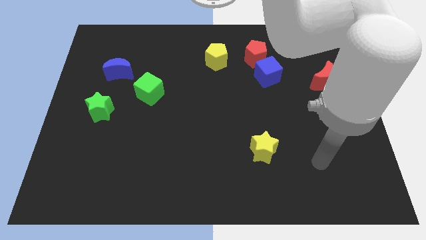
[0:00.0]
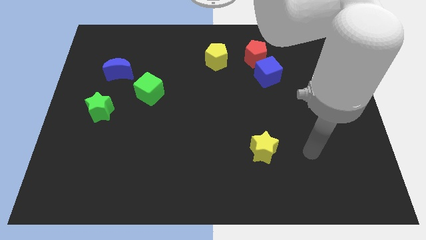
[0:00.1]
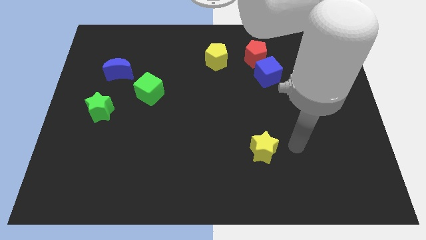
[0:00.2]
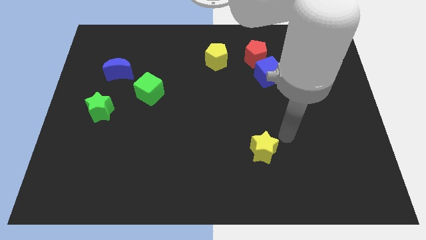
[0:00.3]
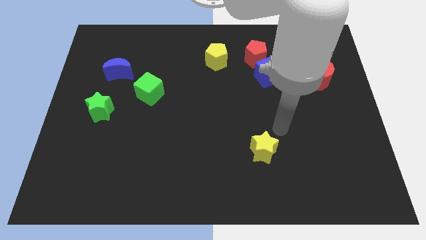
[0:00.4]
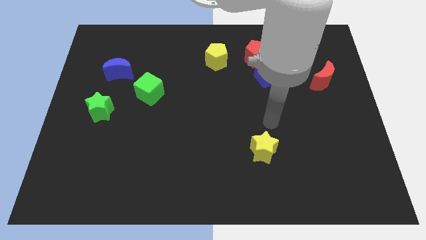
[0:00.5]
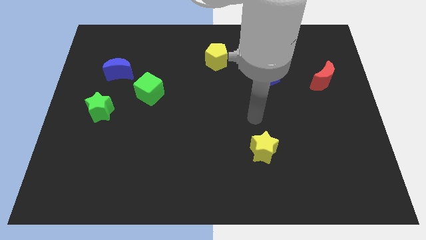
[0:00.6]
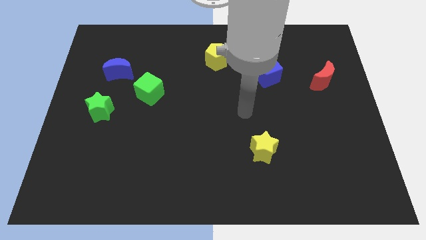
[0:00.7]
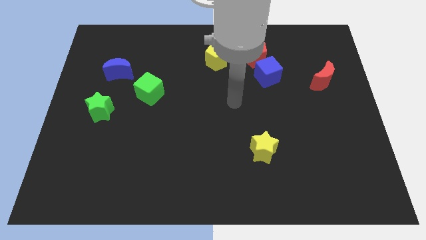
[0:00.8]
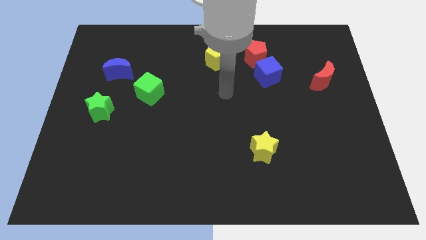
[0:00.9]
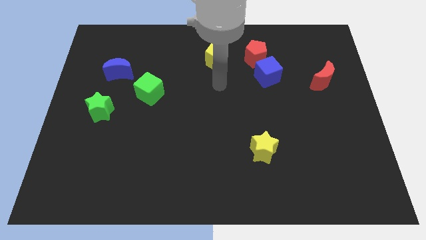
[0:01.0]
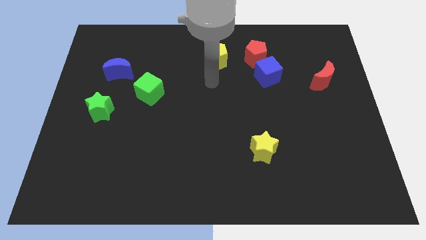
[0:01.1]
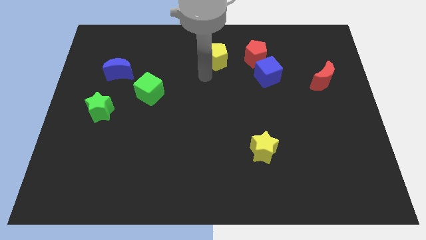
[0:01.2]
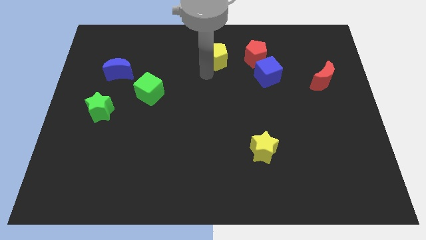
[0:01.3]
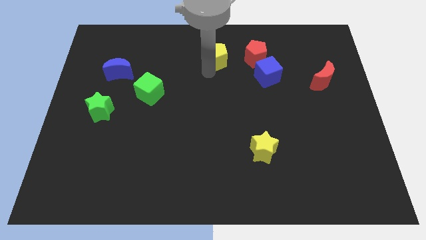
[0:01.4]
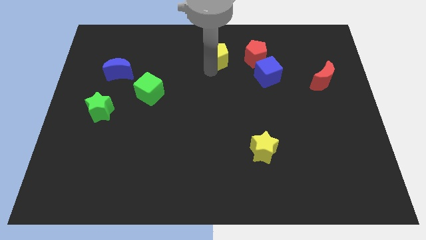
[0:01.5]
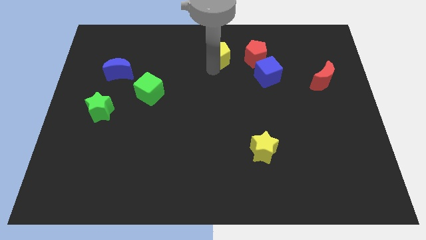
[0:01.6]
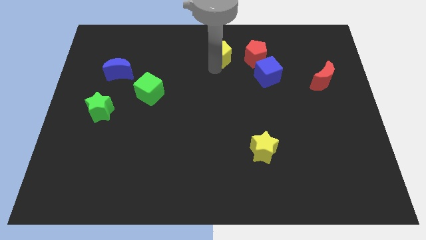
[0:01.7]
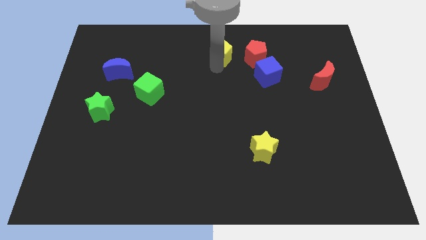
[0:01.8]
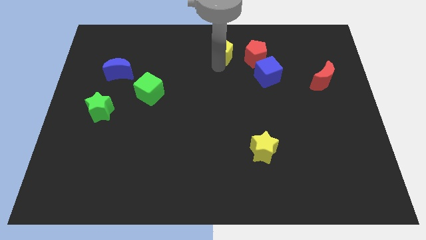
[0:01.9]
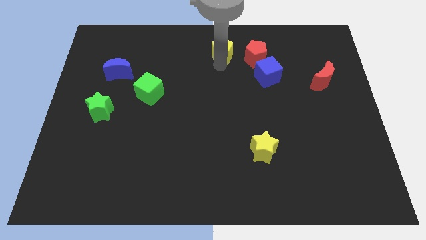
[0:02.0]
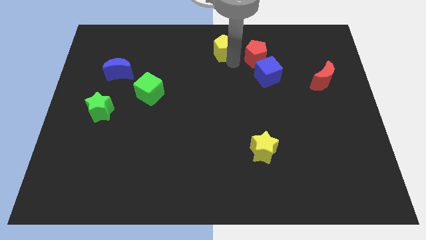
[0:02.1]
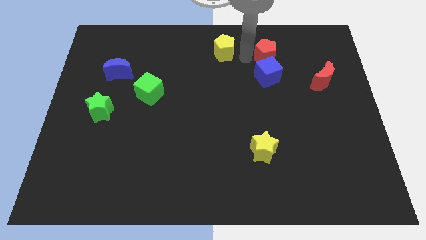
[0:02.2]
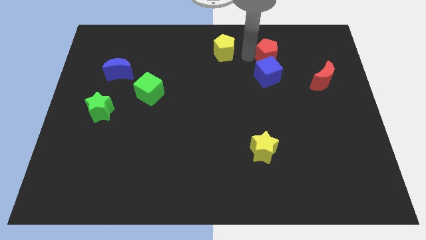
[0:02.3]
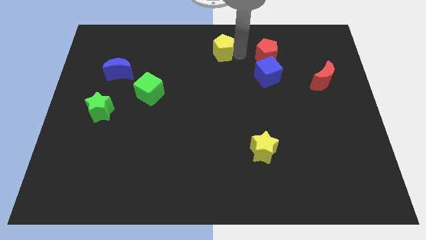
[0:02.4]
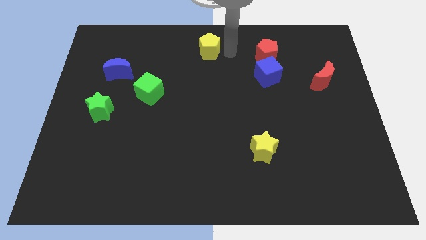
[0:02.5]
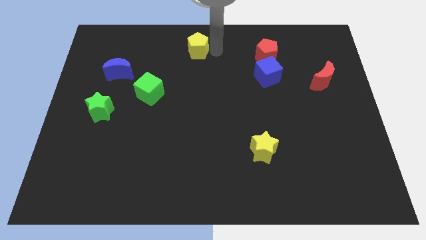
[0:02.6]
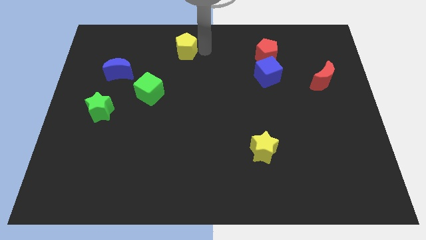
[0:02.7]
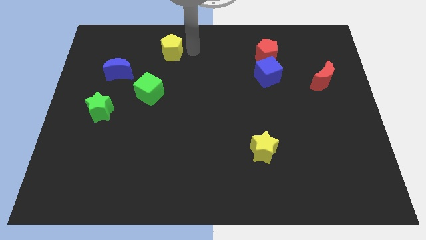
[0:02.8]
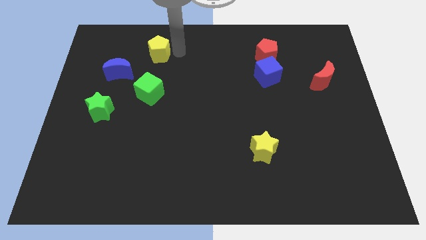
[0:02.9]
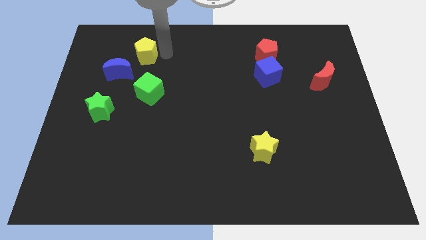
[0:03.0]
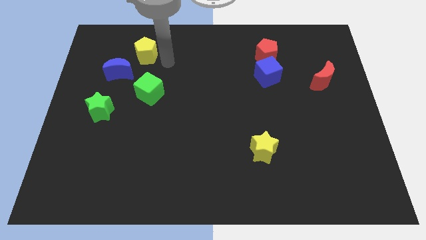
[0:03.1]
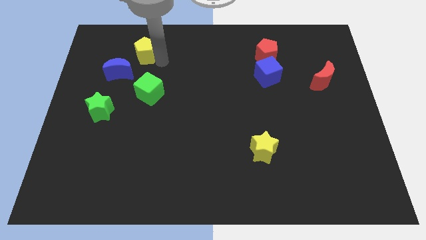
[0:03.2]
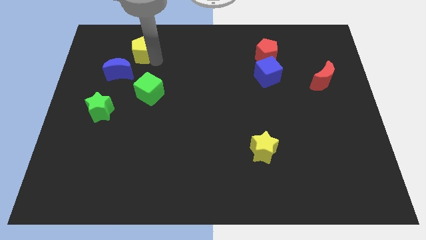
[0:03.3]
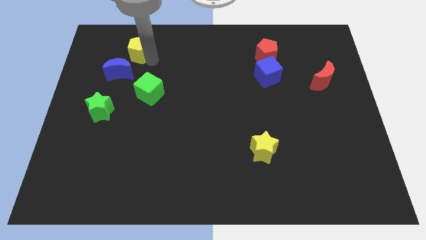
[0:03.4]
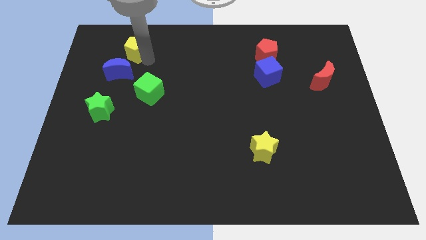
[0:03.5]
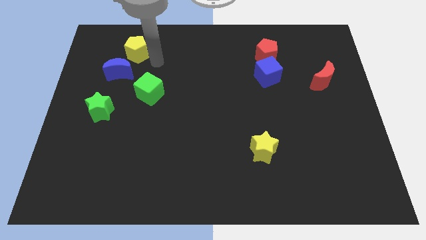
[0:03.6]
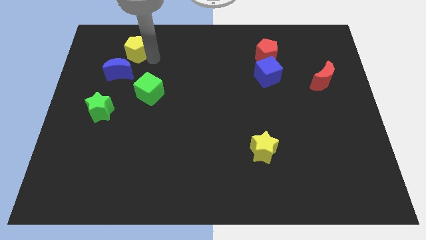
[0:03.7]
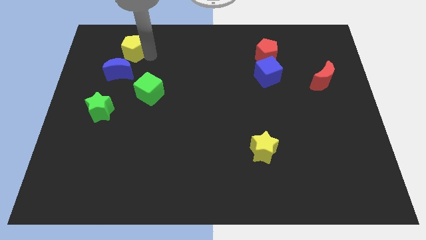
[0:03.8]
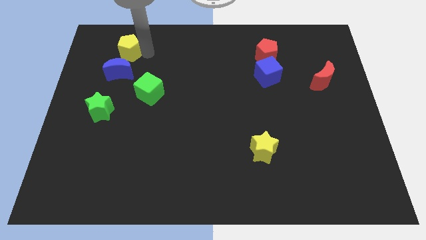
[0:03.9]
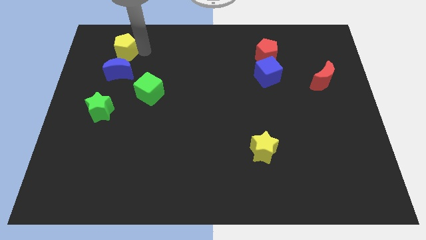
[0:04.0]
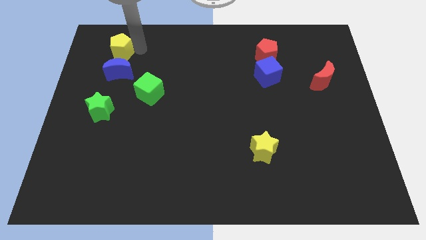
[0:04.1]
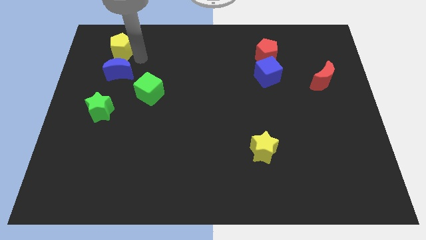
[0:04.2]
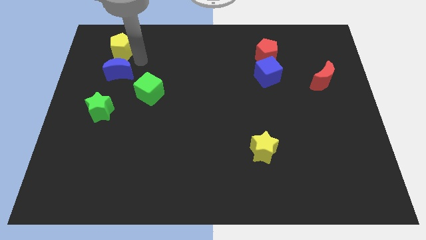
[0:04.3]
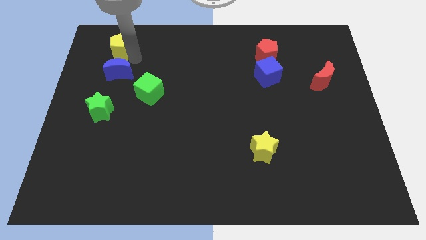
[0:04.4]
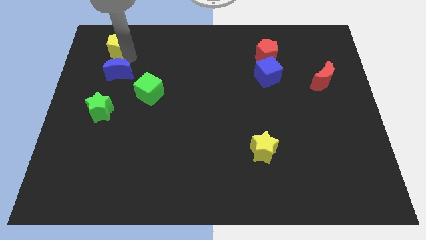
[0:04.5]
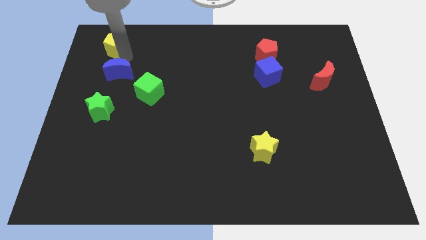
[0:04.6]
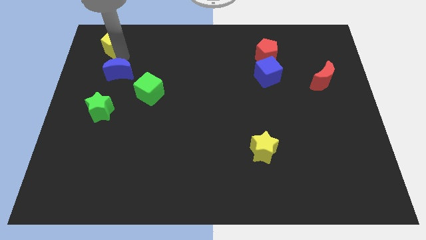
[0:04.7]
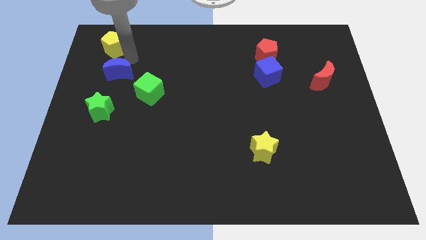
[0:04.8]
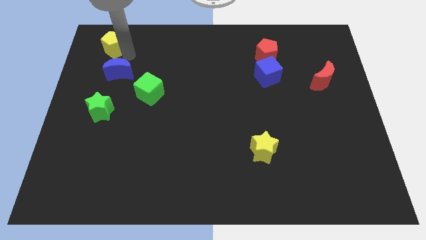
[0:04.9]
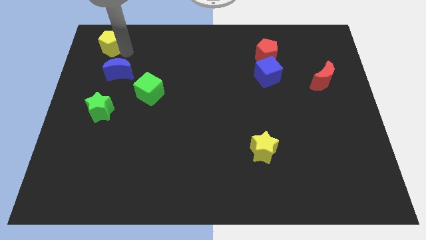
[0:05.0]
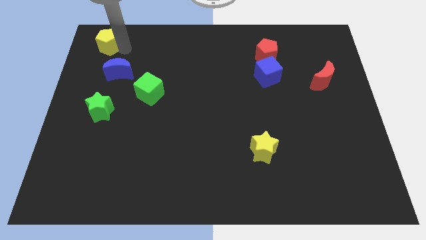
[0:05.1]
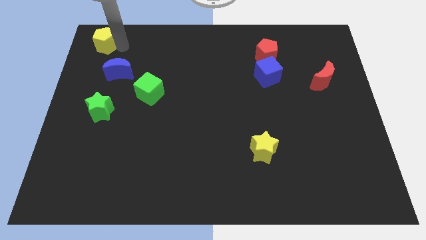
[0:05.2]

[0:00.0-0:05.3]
slide the yellow pentagon to the upper left corner

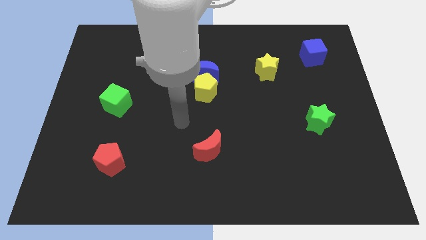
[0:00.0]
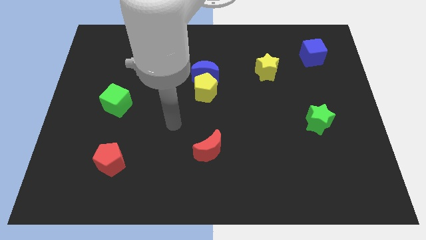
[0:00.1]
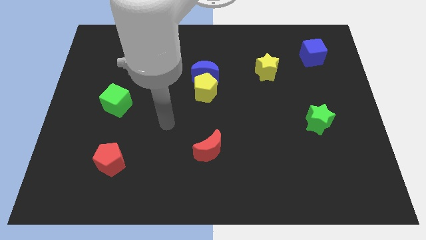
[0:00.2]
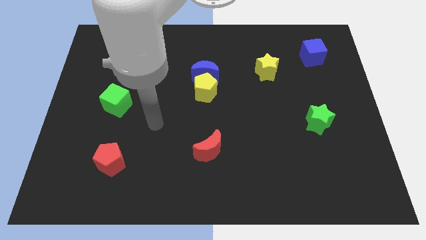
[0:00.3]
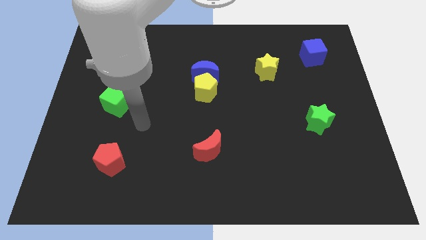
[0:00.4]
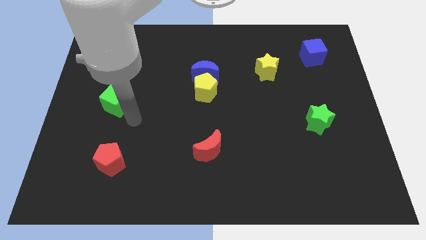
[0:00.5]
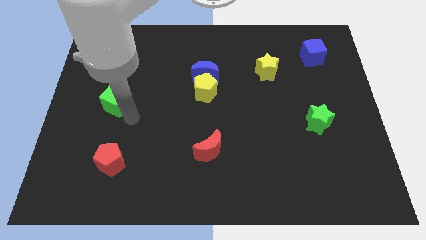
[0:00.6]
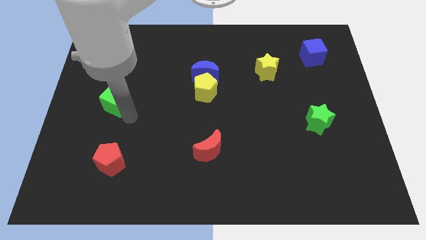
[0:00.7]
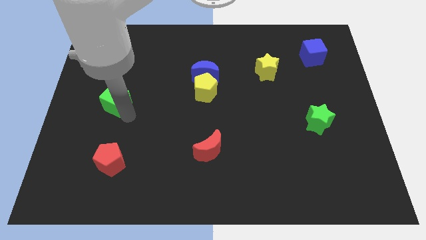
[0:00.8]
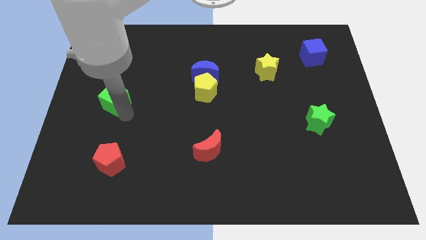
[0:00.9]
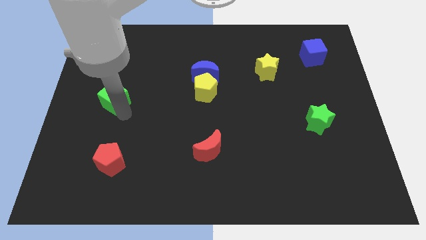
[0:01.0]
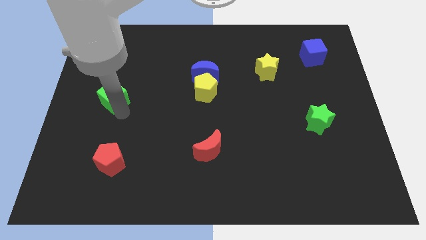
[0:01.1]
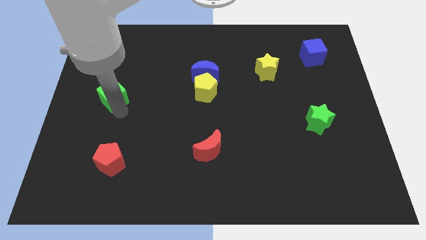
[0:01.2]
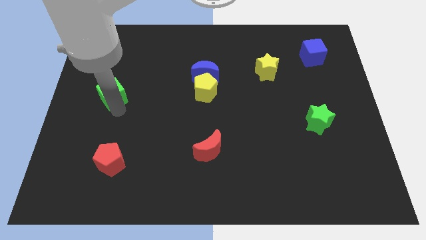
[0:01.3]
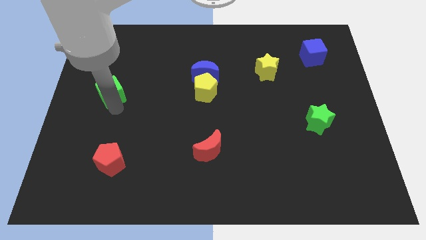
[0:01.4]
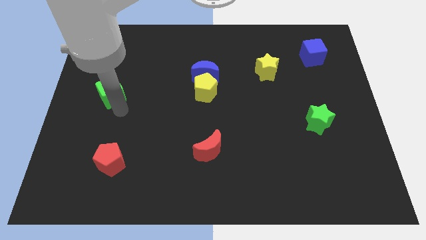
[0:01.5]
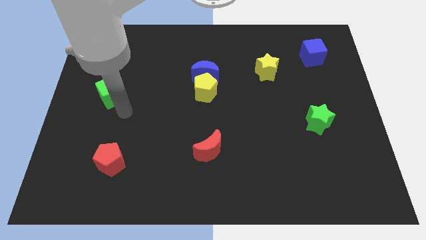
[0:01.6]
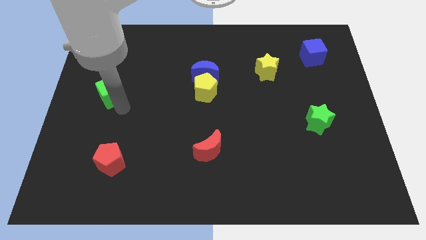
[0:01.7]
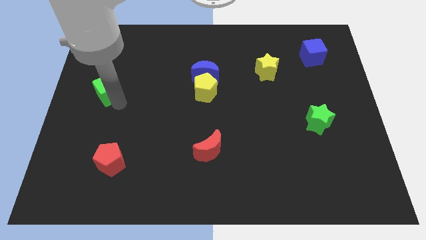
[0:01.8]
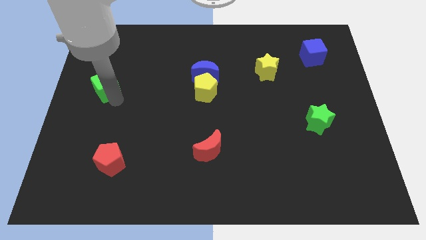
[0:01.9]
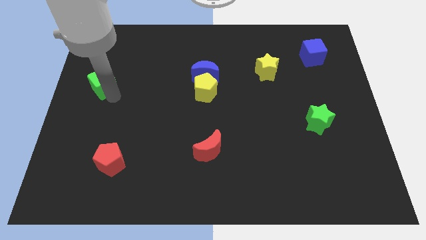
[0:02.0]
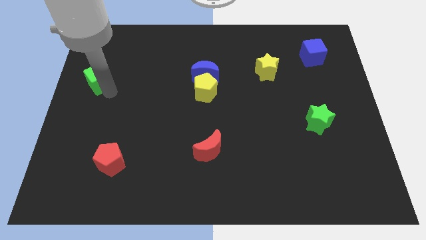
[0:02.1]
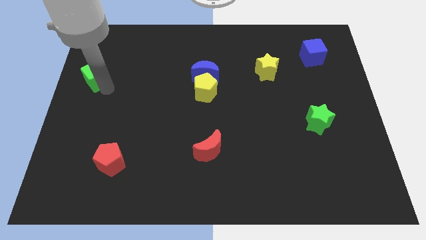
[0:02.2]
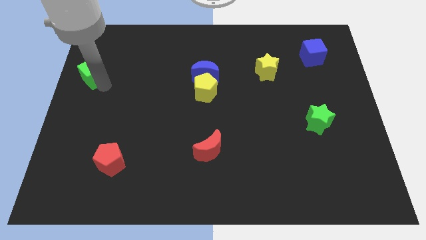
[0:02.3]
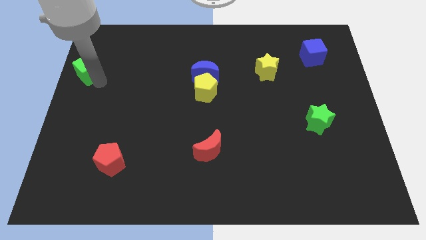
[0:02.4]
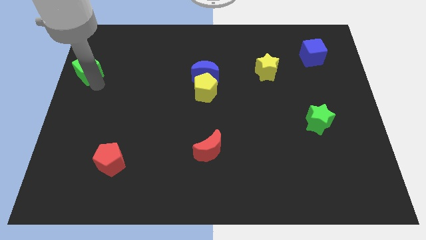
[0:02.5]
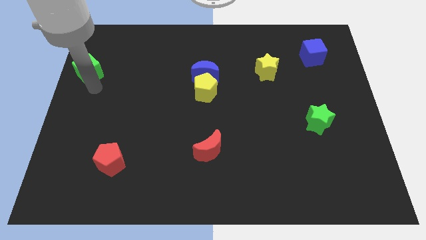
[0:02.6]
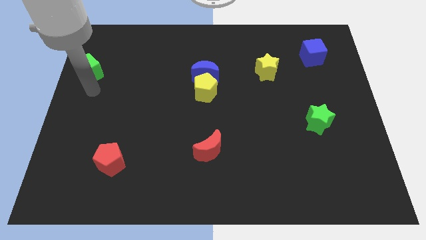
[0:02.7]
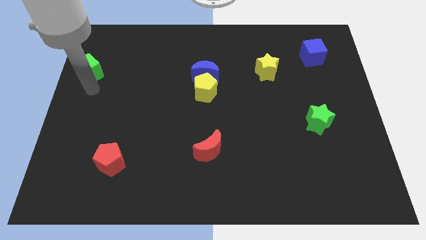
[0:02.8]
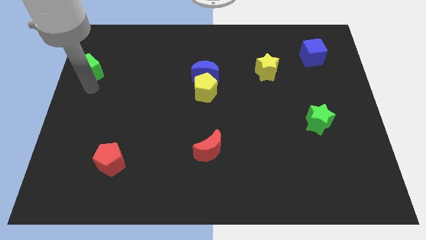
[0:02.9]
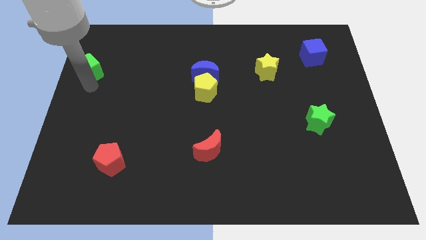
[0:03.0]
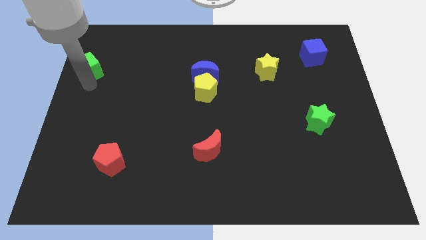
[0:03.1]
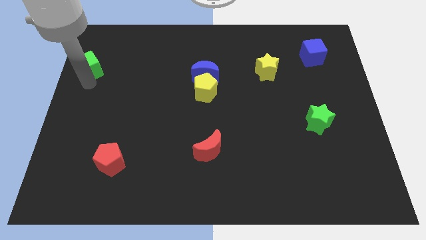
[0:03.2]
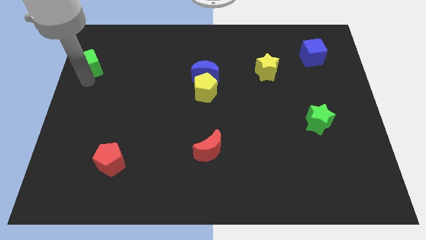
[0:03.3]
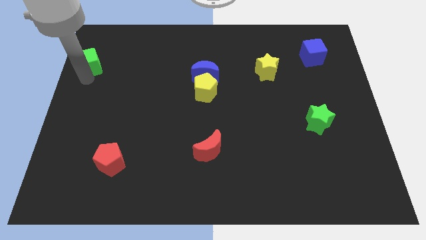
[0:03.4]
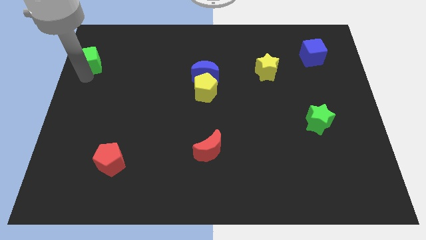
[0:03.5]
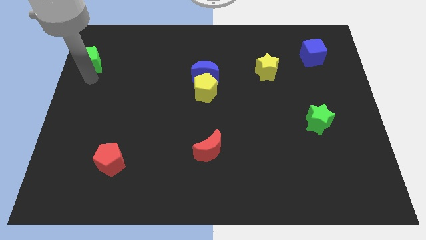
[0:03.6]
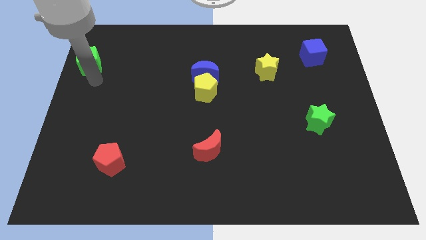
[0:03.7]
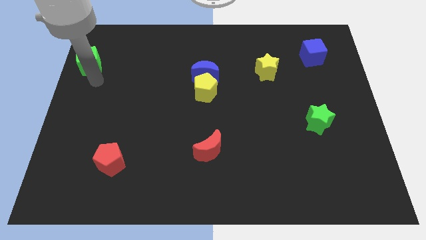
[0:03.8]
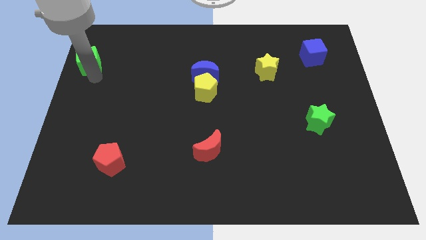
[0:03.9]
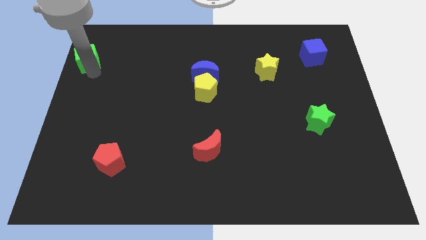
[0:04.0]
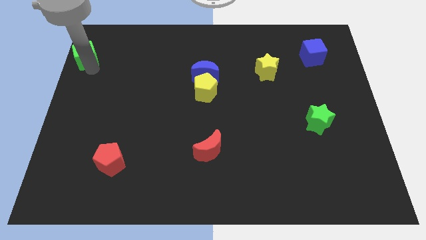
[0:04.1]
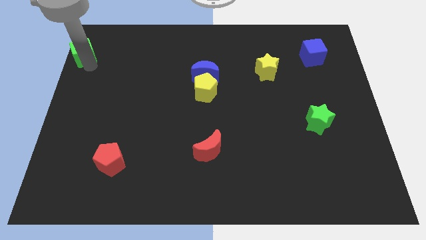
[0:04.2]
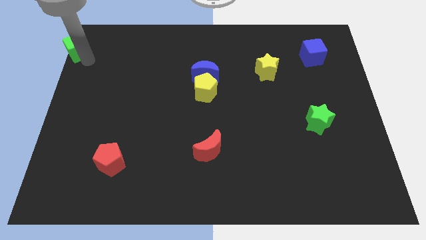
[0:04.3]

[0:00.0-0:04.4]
slide the green cube to the upper left corner
